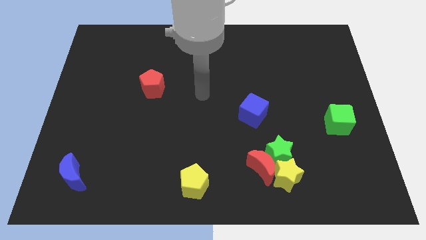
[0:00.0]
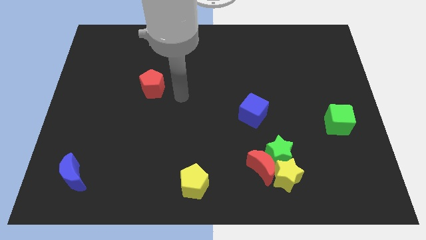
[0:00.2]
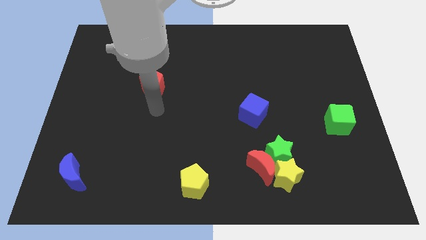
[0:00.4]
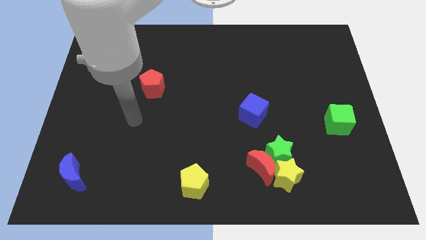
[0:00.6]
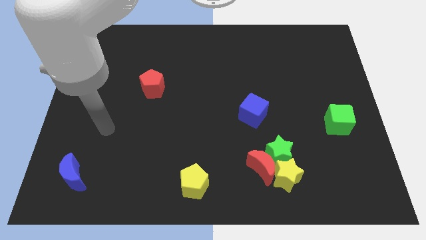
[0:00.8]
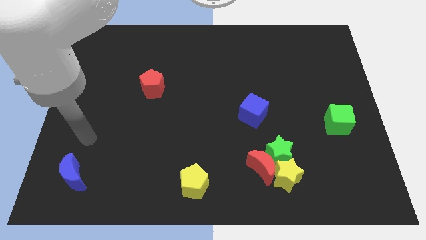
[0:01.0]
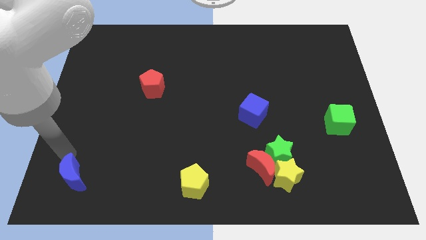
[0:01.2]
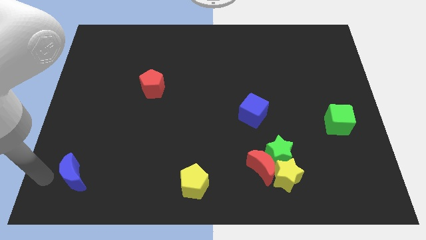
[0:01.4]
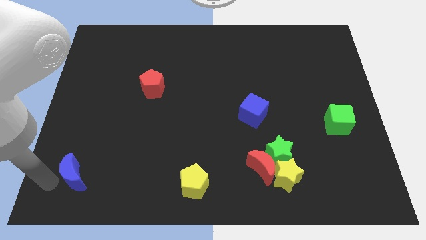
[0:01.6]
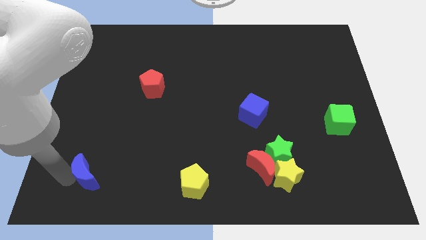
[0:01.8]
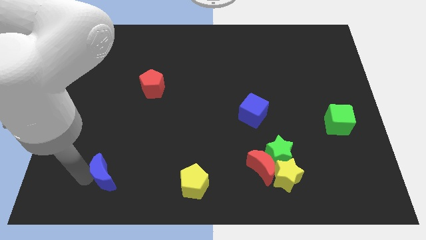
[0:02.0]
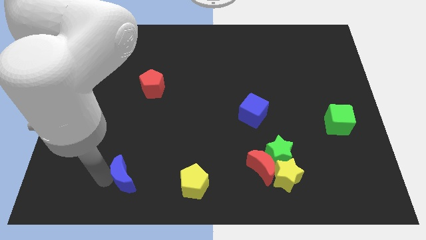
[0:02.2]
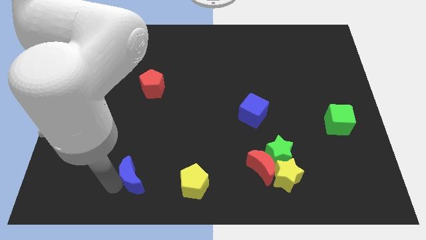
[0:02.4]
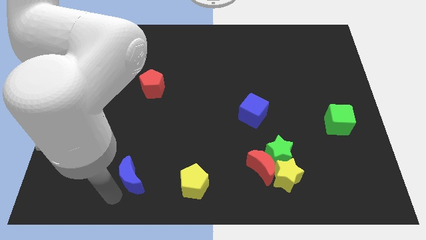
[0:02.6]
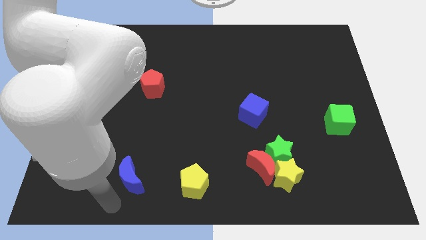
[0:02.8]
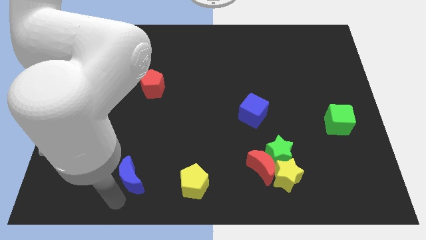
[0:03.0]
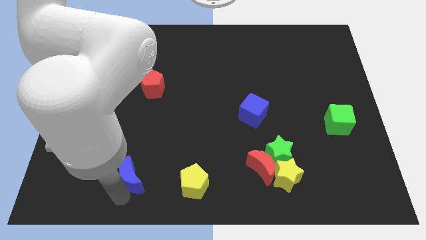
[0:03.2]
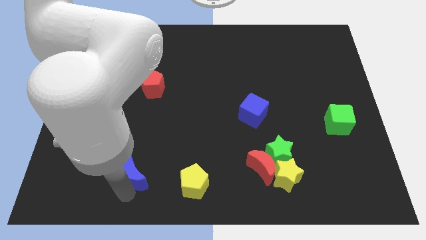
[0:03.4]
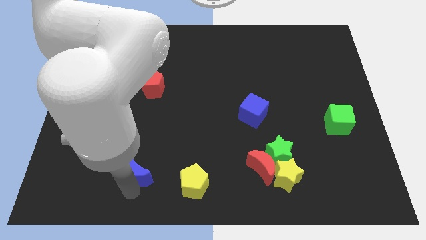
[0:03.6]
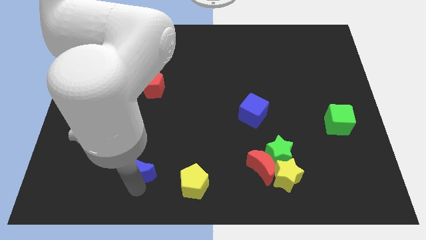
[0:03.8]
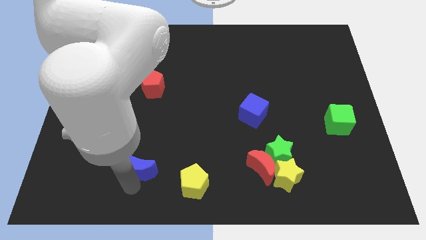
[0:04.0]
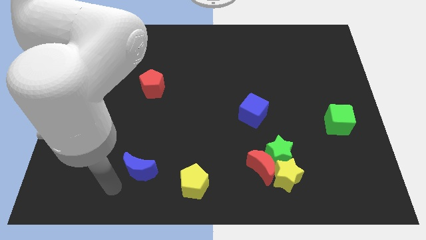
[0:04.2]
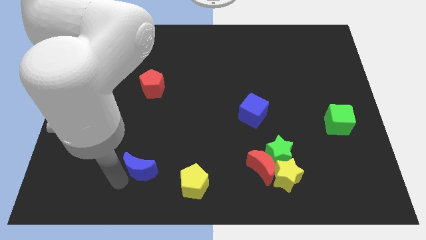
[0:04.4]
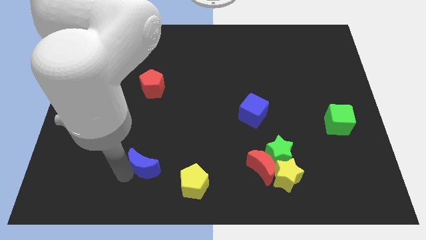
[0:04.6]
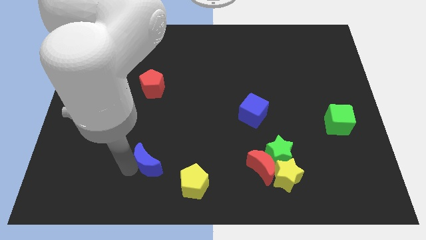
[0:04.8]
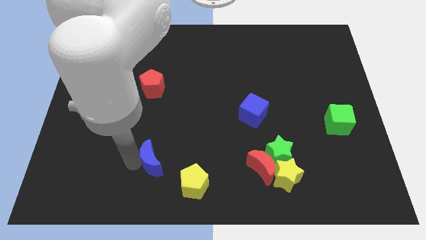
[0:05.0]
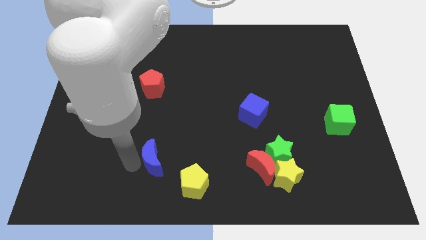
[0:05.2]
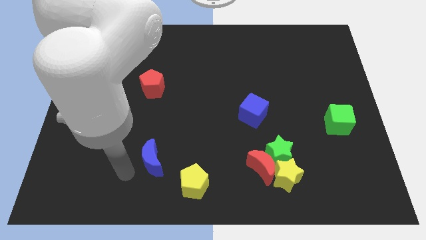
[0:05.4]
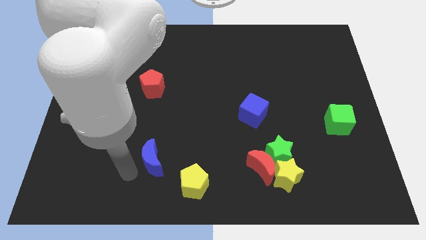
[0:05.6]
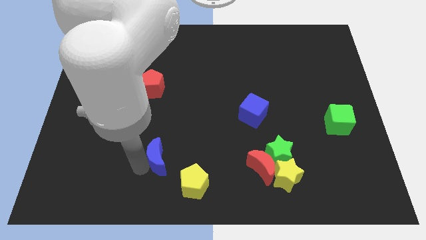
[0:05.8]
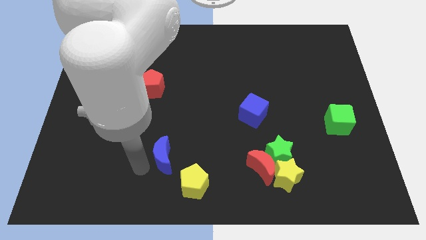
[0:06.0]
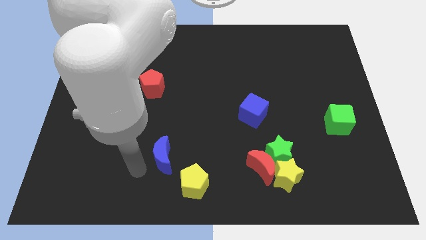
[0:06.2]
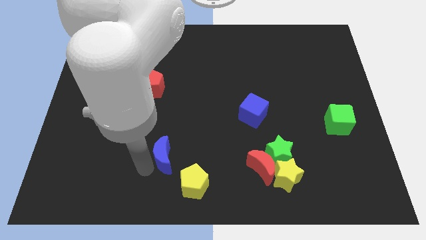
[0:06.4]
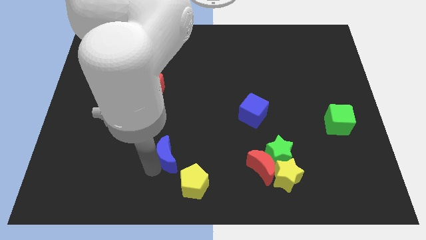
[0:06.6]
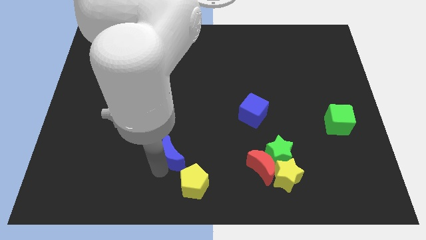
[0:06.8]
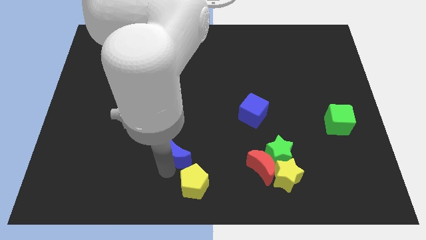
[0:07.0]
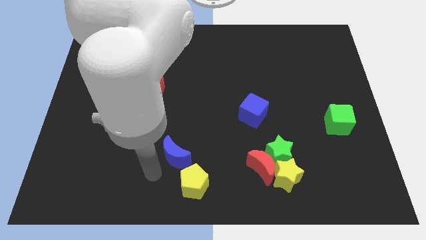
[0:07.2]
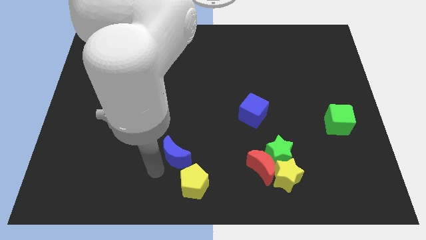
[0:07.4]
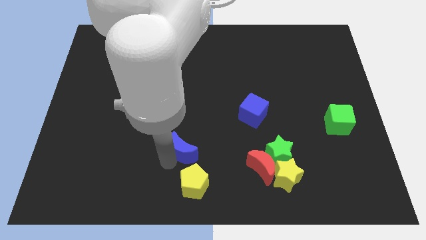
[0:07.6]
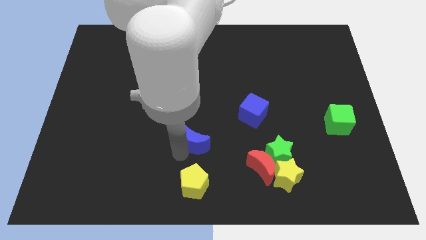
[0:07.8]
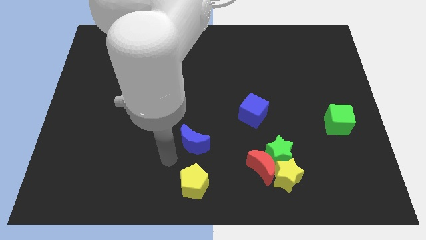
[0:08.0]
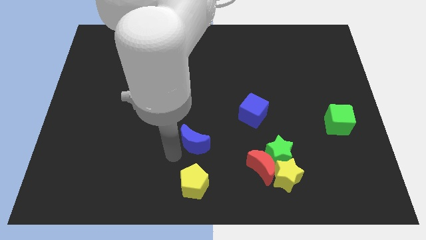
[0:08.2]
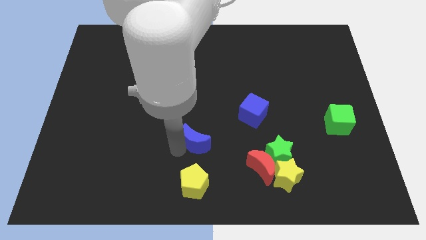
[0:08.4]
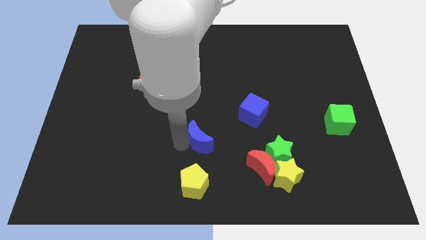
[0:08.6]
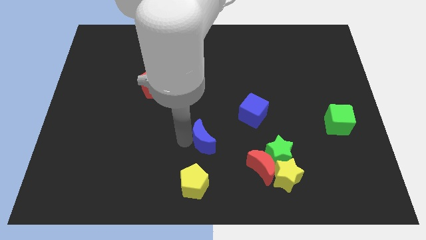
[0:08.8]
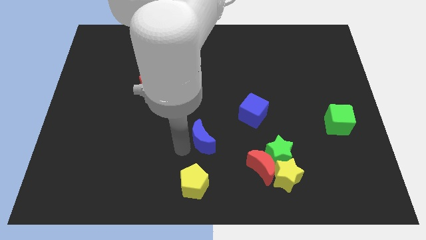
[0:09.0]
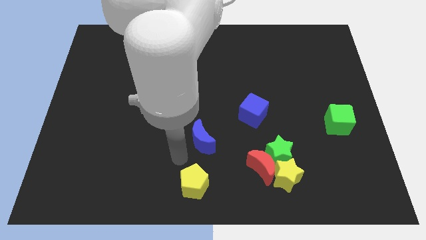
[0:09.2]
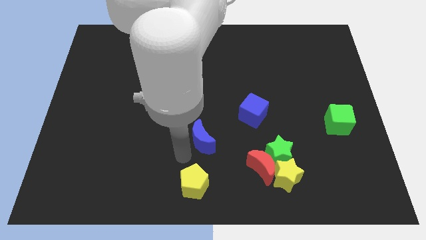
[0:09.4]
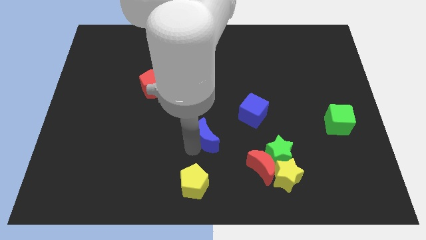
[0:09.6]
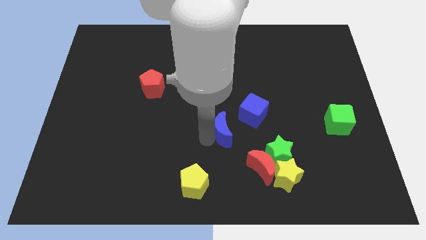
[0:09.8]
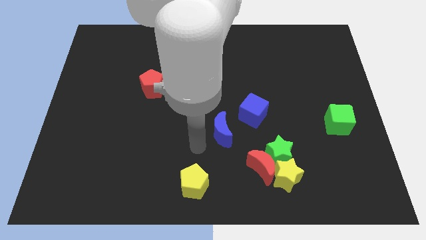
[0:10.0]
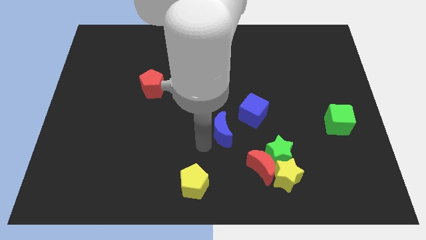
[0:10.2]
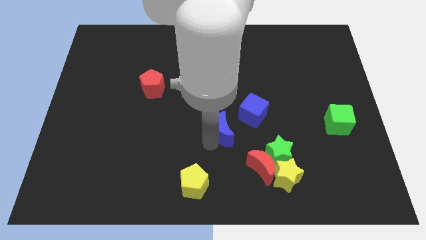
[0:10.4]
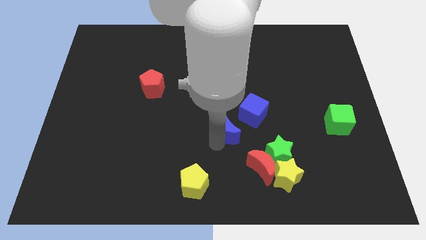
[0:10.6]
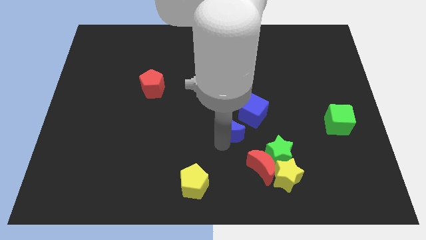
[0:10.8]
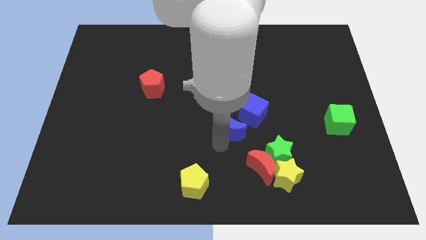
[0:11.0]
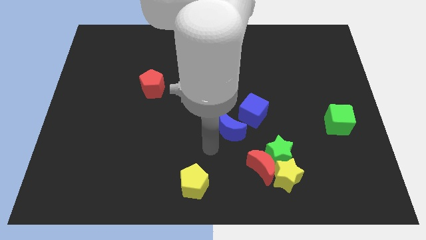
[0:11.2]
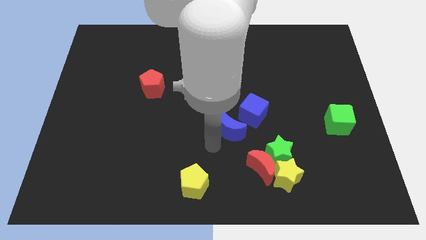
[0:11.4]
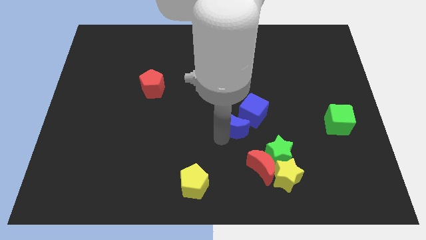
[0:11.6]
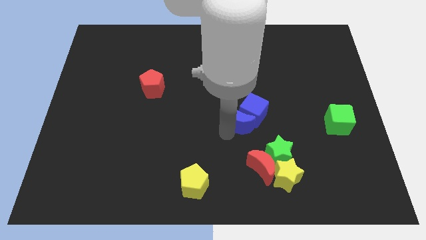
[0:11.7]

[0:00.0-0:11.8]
move the blue moon next to the blue cube

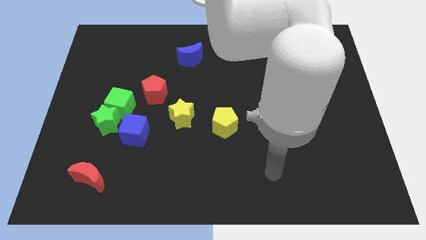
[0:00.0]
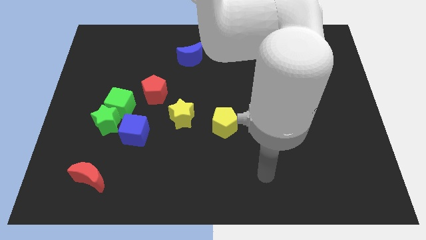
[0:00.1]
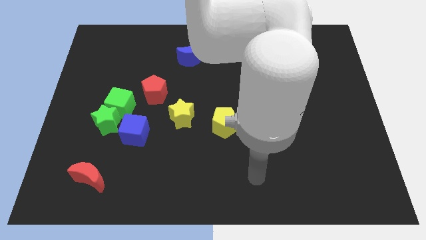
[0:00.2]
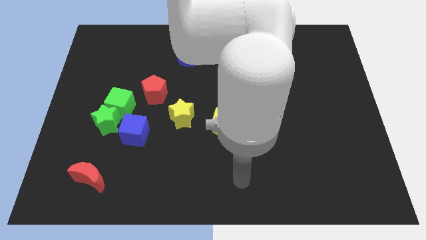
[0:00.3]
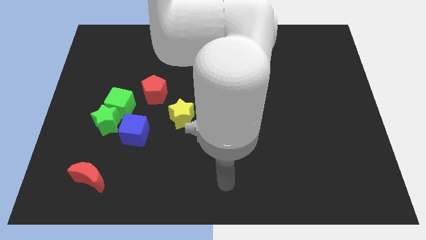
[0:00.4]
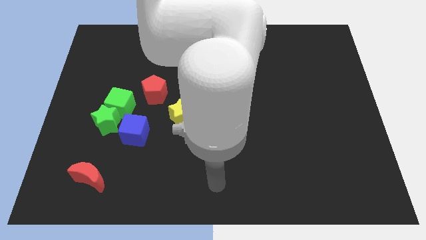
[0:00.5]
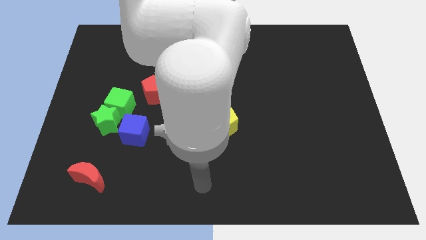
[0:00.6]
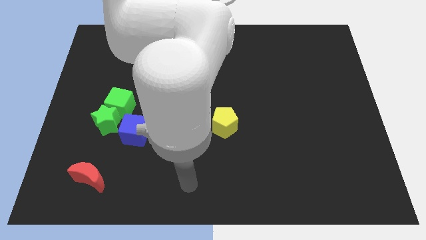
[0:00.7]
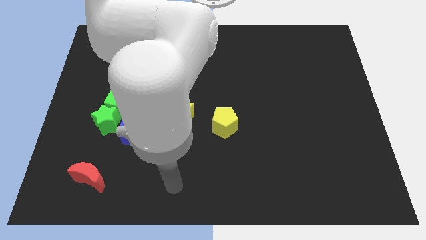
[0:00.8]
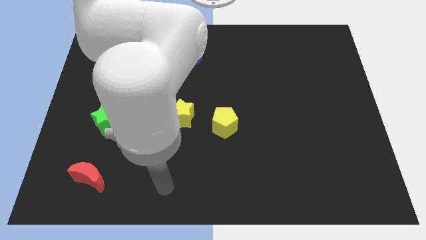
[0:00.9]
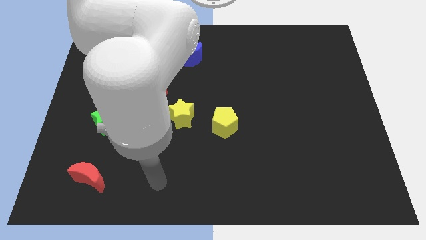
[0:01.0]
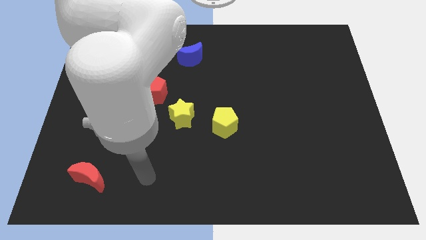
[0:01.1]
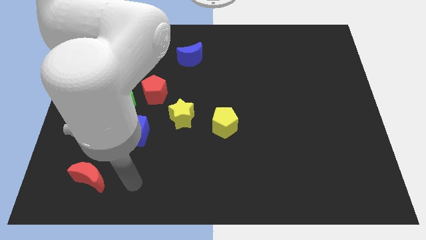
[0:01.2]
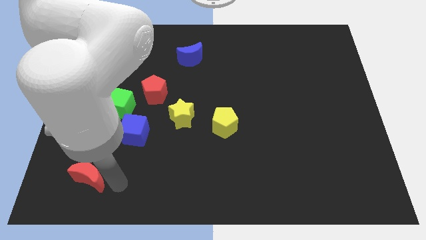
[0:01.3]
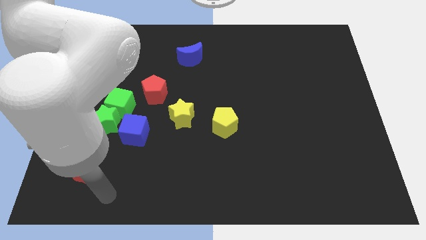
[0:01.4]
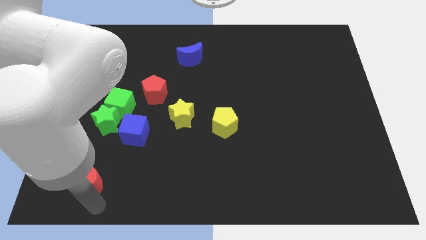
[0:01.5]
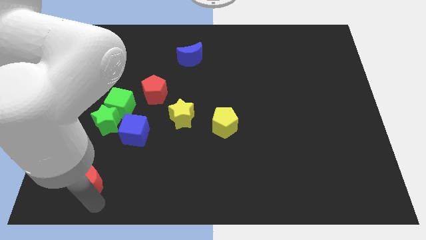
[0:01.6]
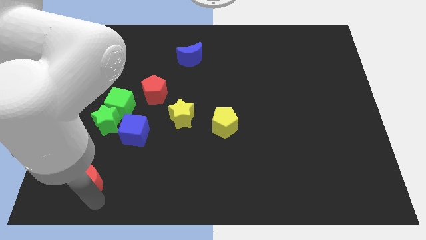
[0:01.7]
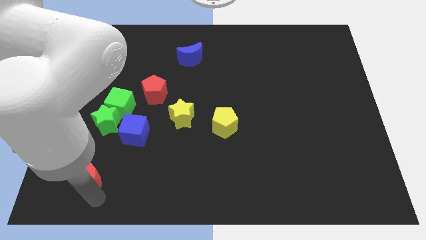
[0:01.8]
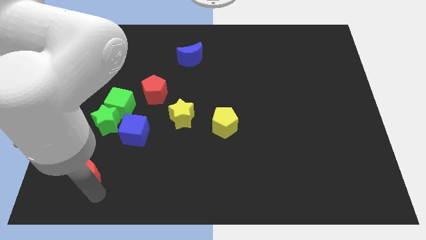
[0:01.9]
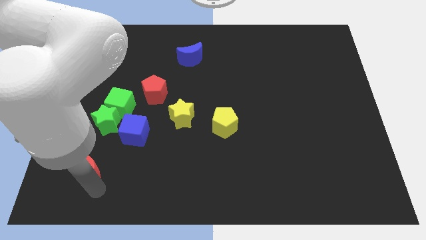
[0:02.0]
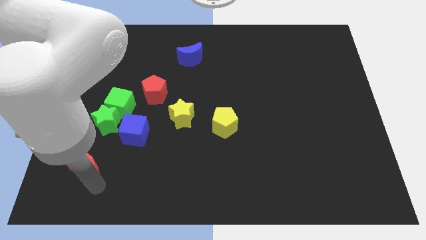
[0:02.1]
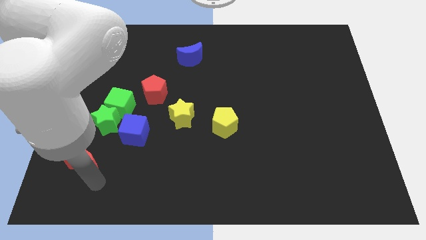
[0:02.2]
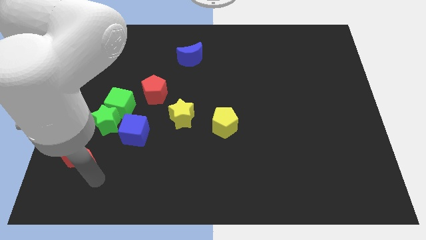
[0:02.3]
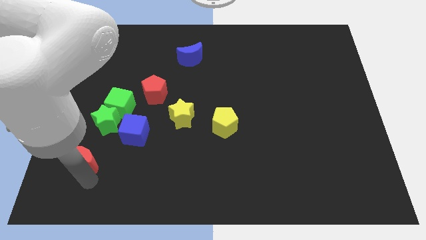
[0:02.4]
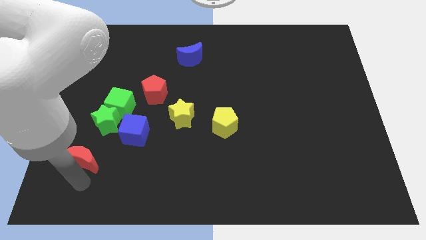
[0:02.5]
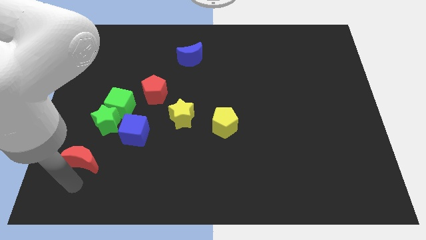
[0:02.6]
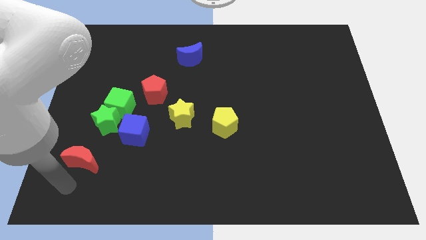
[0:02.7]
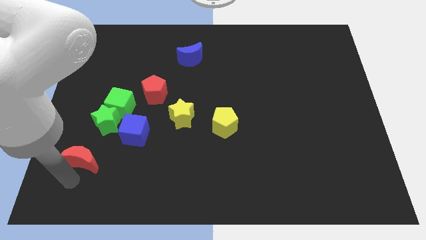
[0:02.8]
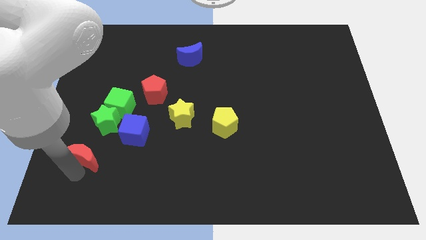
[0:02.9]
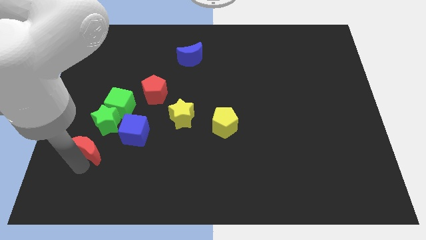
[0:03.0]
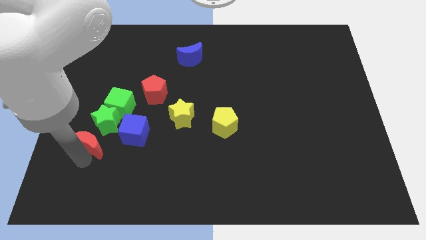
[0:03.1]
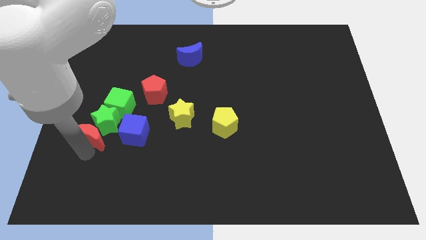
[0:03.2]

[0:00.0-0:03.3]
put the red moon towards the green star
